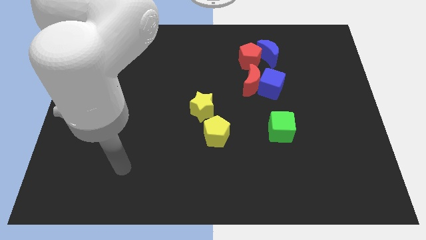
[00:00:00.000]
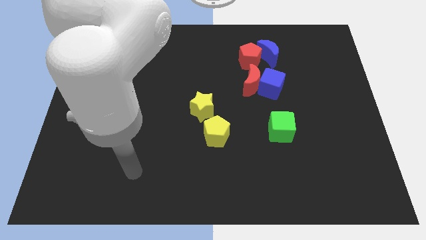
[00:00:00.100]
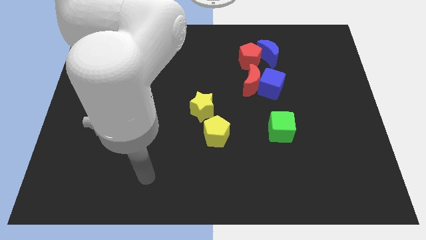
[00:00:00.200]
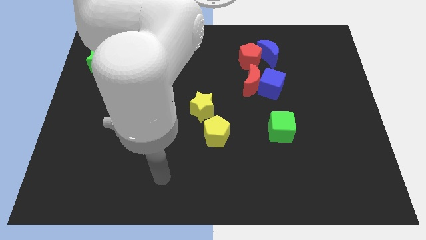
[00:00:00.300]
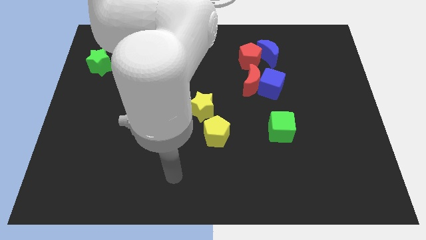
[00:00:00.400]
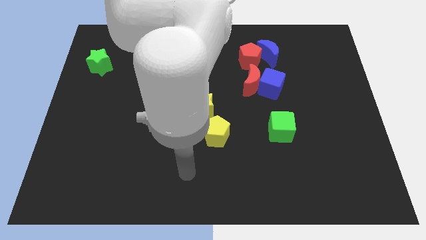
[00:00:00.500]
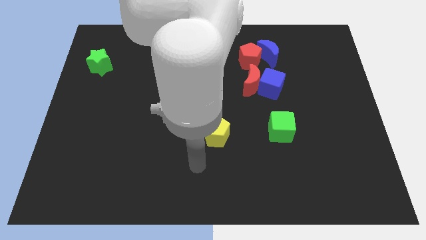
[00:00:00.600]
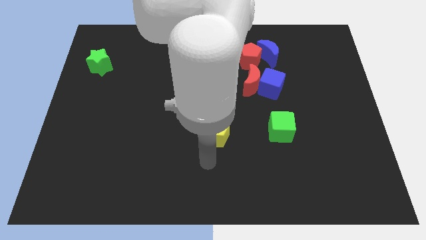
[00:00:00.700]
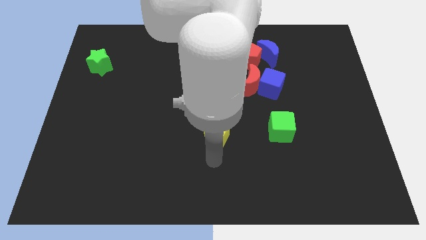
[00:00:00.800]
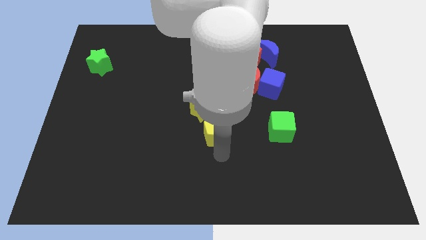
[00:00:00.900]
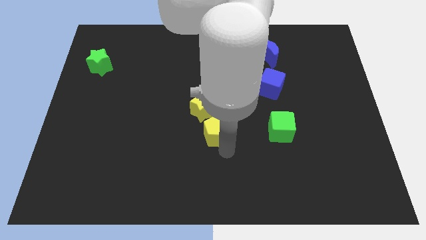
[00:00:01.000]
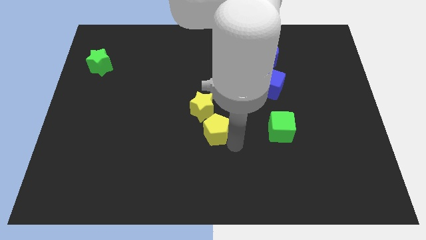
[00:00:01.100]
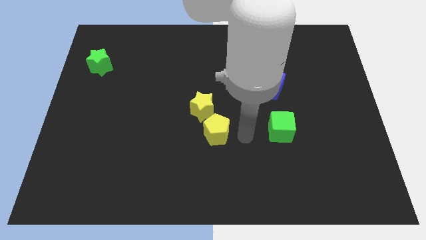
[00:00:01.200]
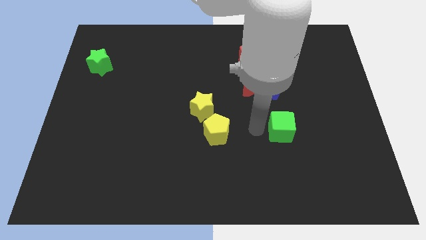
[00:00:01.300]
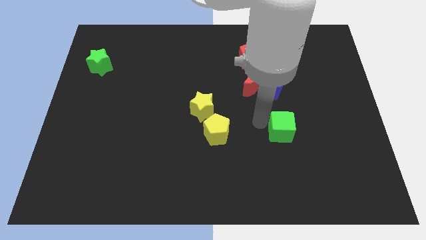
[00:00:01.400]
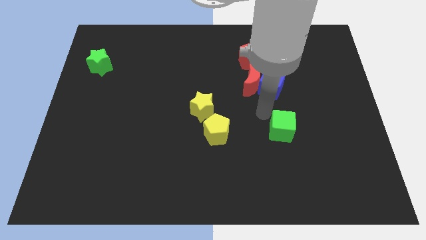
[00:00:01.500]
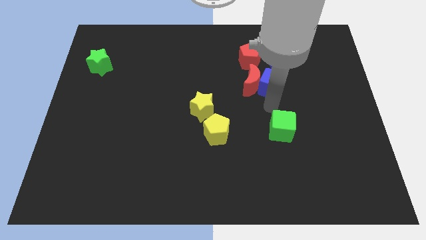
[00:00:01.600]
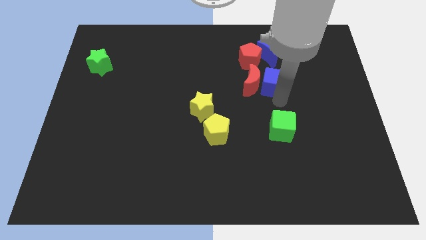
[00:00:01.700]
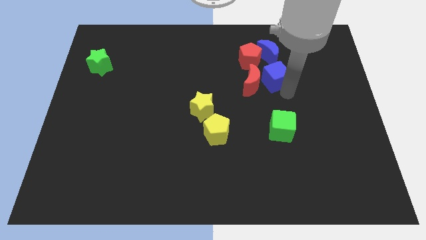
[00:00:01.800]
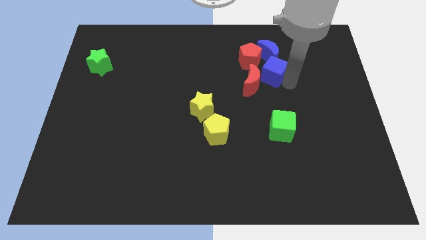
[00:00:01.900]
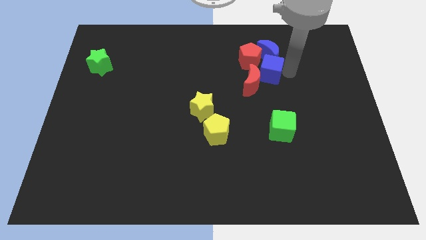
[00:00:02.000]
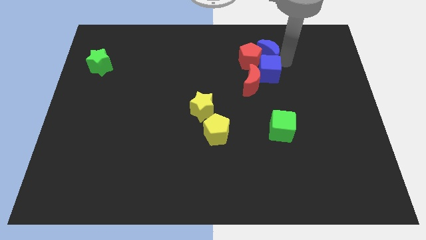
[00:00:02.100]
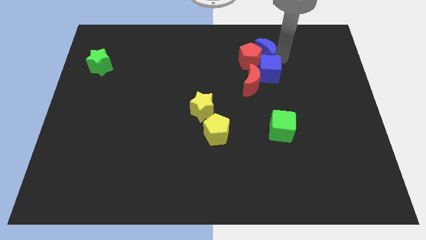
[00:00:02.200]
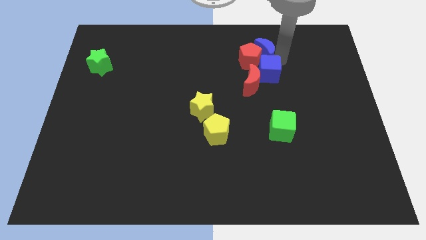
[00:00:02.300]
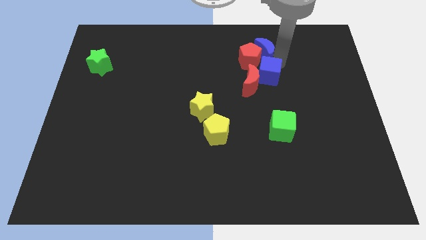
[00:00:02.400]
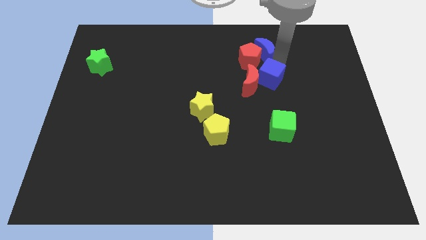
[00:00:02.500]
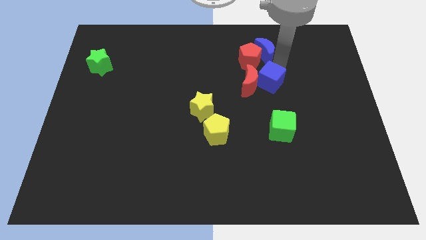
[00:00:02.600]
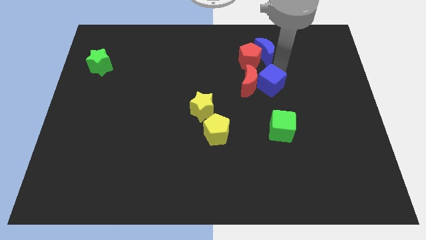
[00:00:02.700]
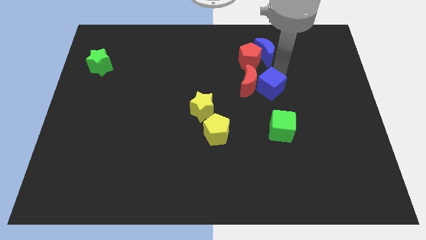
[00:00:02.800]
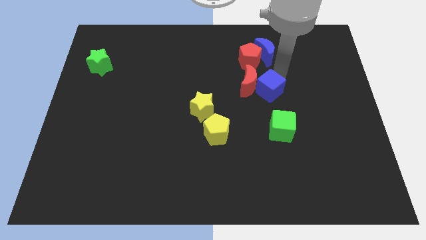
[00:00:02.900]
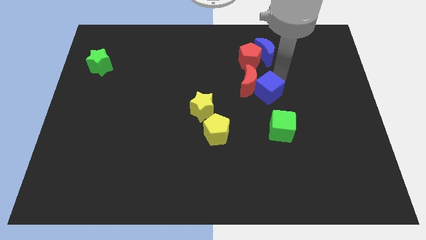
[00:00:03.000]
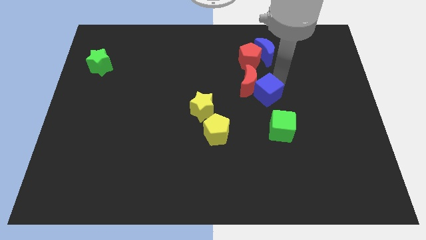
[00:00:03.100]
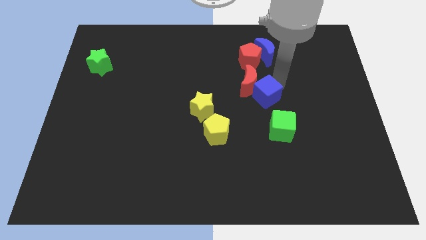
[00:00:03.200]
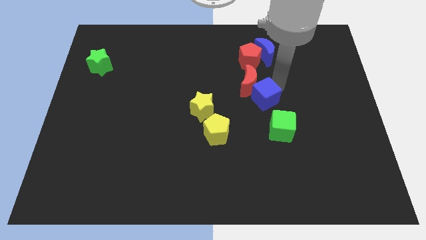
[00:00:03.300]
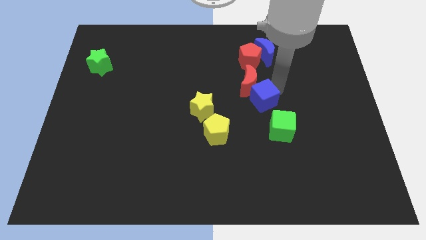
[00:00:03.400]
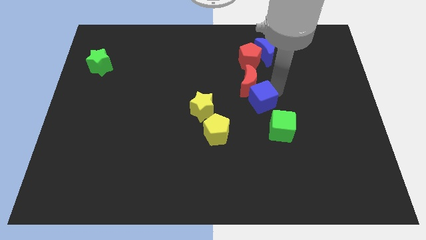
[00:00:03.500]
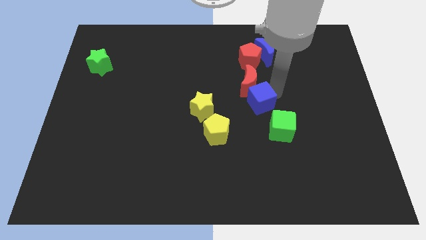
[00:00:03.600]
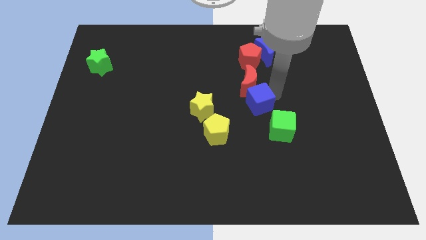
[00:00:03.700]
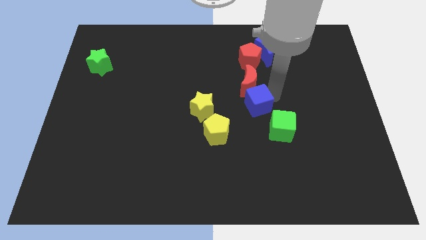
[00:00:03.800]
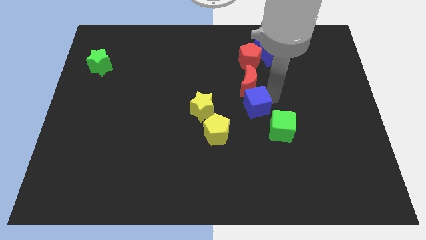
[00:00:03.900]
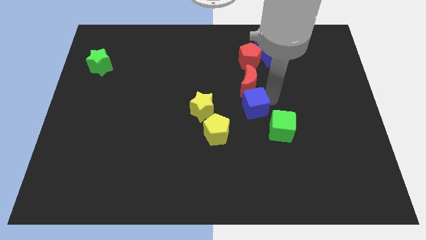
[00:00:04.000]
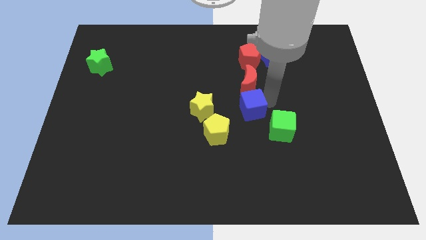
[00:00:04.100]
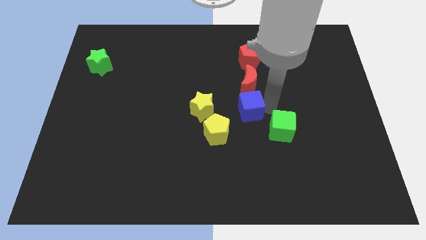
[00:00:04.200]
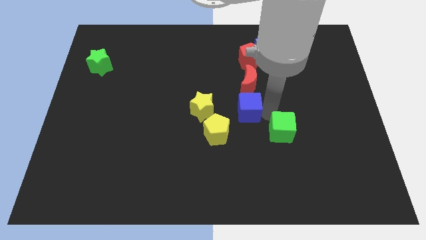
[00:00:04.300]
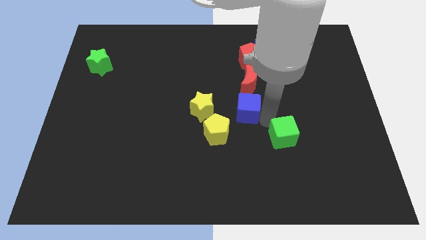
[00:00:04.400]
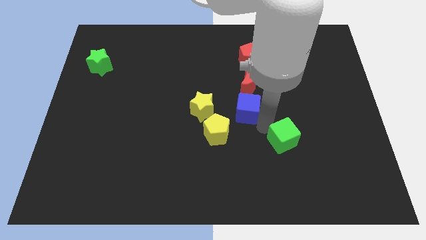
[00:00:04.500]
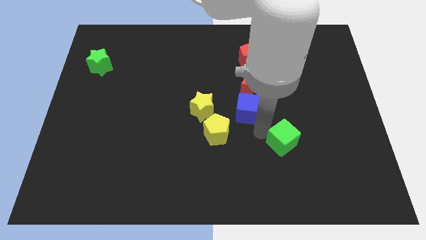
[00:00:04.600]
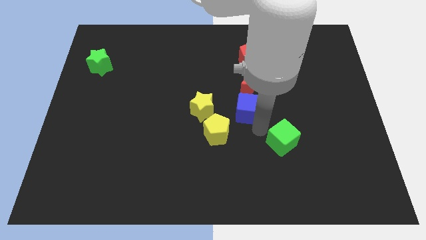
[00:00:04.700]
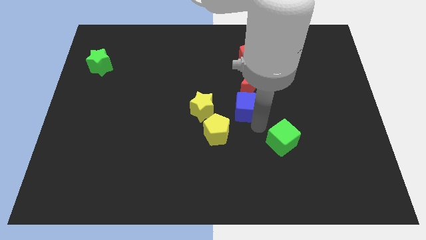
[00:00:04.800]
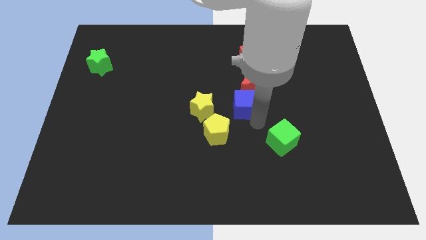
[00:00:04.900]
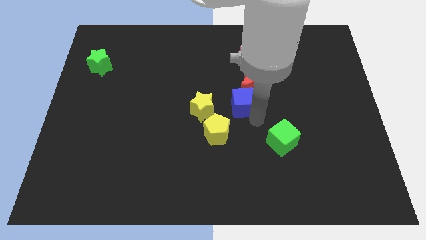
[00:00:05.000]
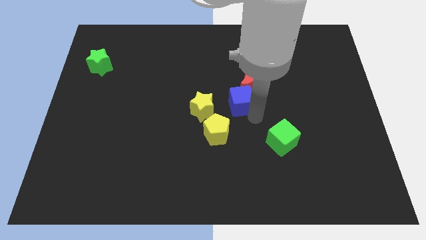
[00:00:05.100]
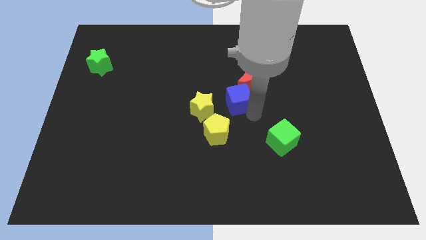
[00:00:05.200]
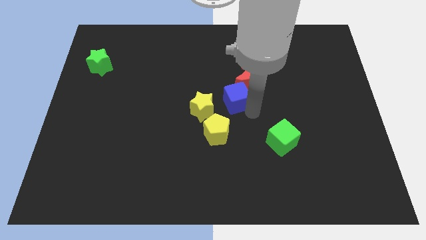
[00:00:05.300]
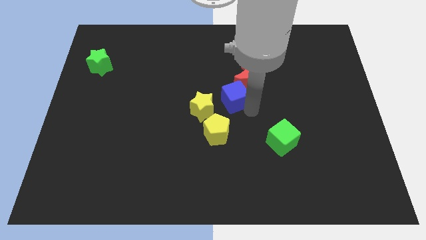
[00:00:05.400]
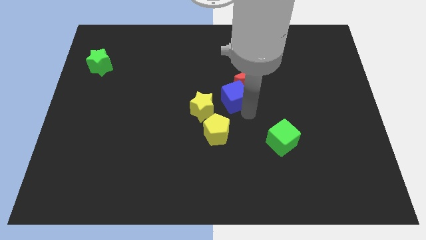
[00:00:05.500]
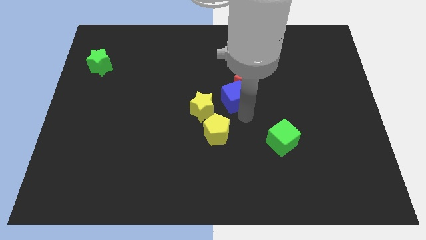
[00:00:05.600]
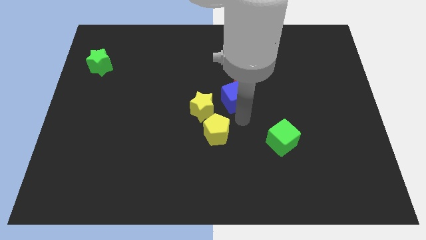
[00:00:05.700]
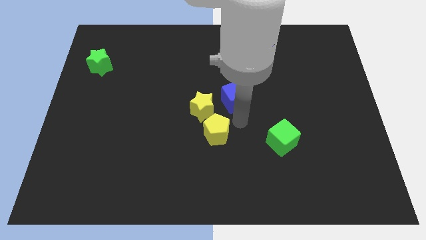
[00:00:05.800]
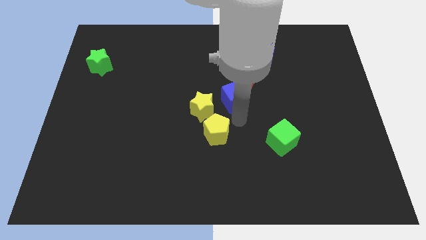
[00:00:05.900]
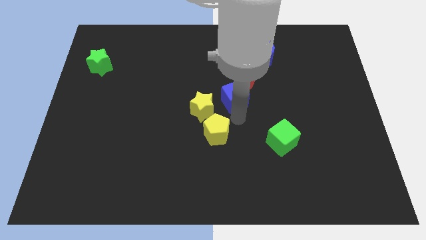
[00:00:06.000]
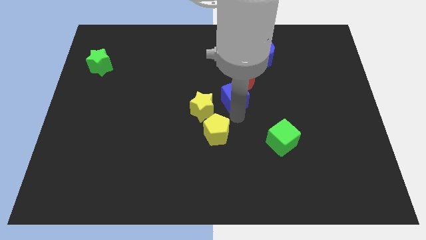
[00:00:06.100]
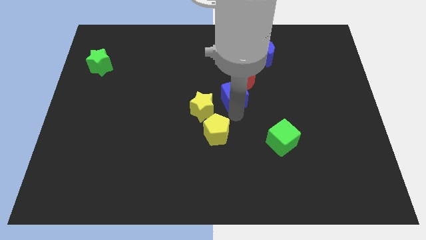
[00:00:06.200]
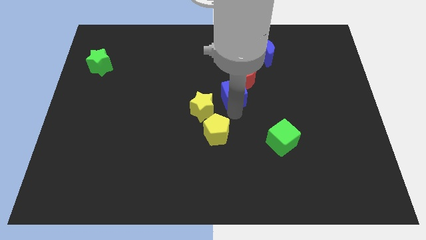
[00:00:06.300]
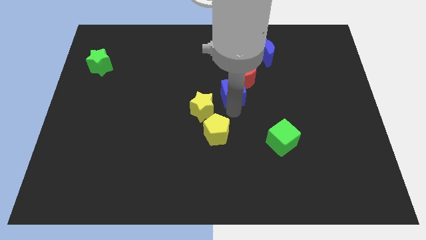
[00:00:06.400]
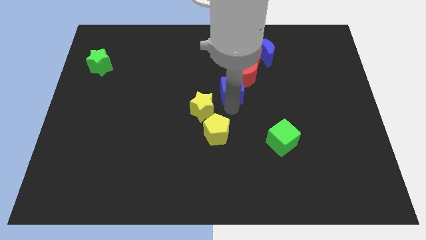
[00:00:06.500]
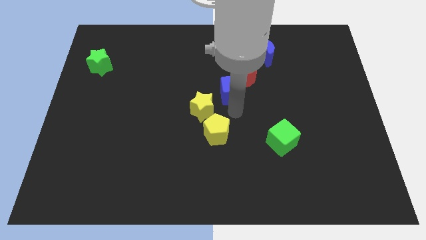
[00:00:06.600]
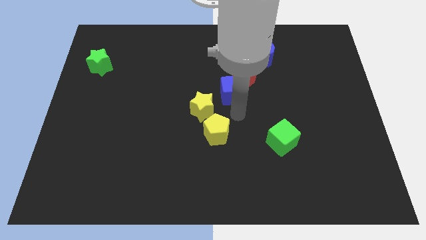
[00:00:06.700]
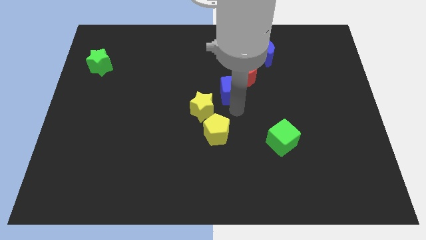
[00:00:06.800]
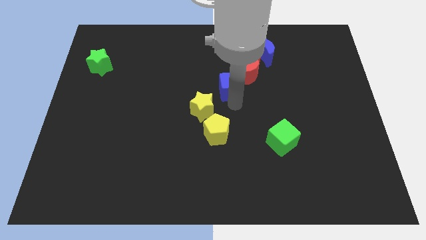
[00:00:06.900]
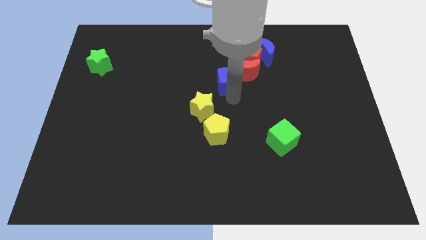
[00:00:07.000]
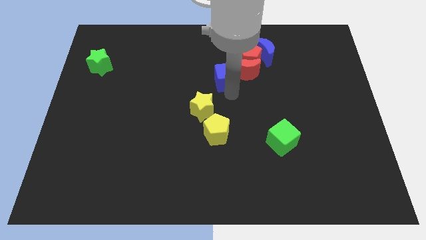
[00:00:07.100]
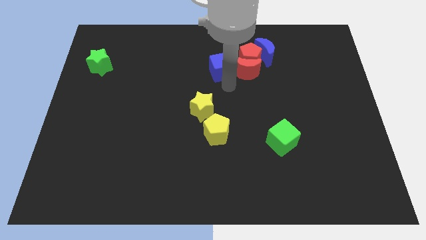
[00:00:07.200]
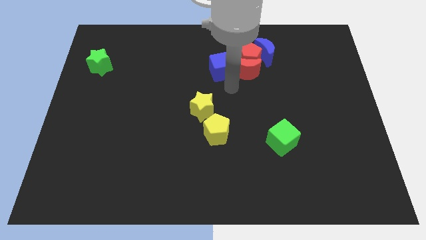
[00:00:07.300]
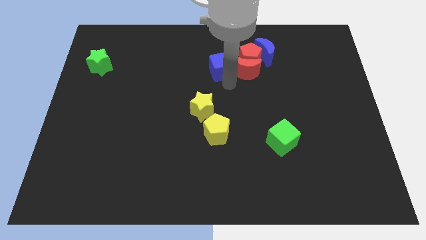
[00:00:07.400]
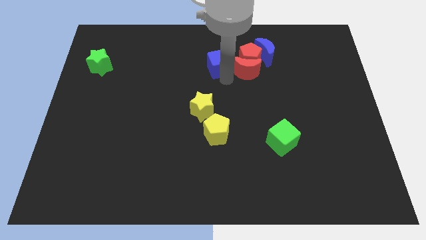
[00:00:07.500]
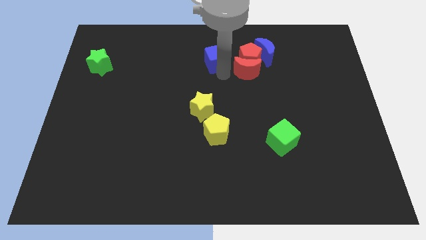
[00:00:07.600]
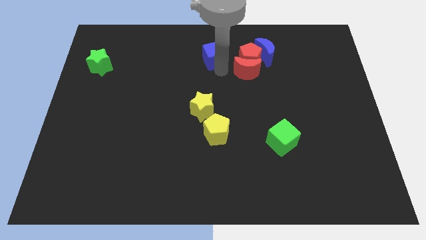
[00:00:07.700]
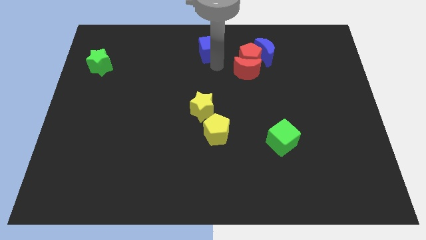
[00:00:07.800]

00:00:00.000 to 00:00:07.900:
slide the blue cube to the top
